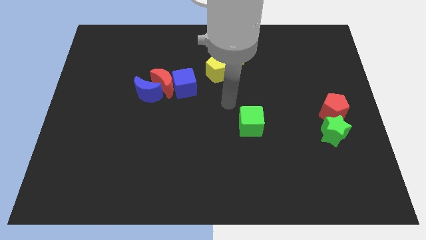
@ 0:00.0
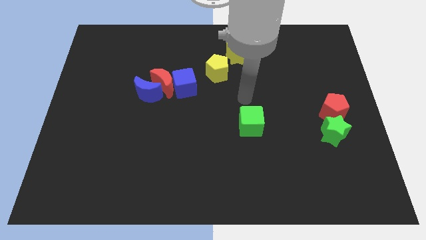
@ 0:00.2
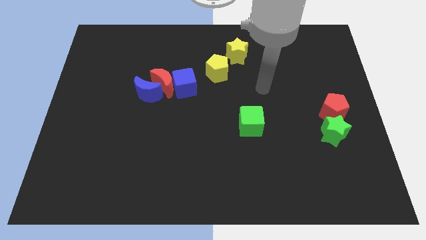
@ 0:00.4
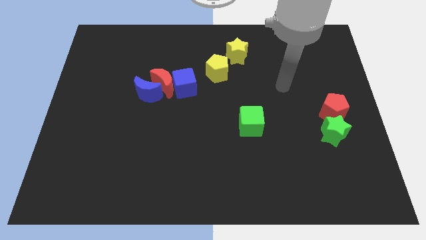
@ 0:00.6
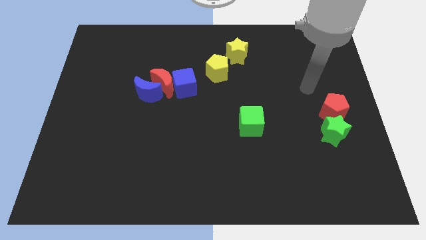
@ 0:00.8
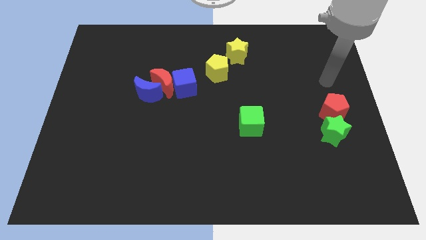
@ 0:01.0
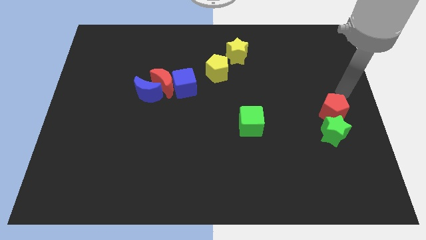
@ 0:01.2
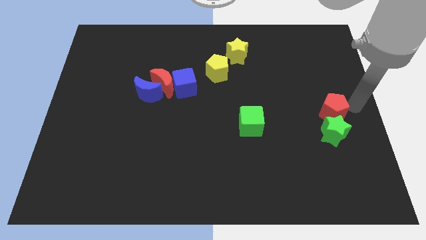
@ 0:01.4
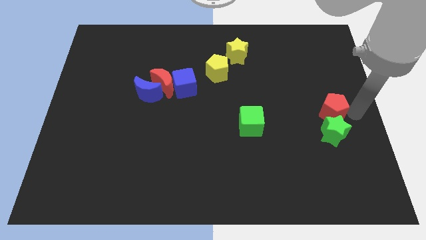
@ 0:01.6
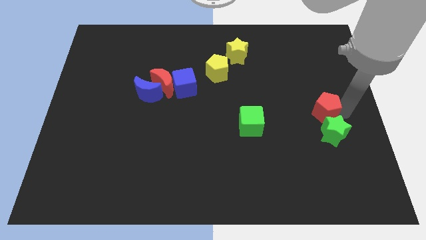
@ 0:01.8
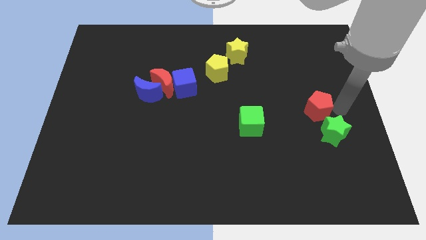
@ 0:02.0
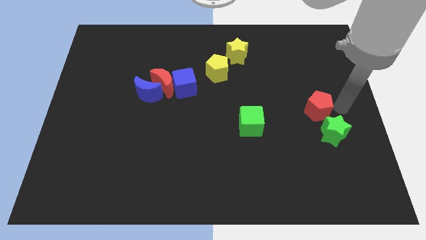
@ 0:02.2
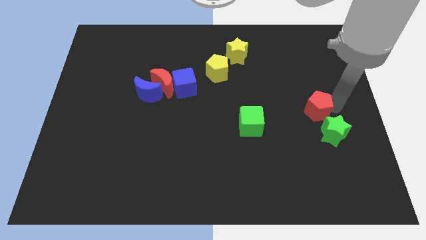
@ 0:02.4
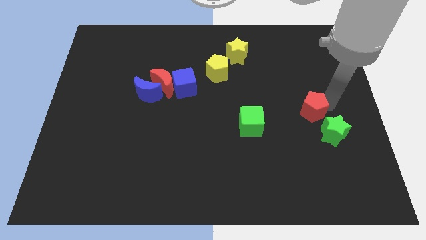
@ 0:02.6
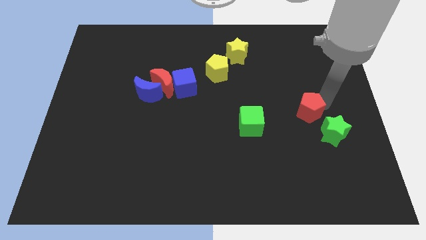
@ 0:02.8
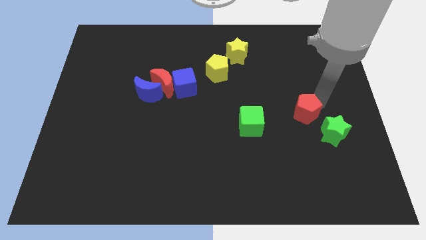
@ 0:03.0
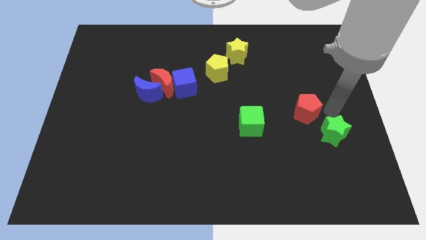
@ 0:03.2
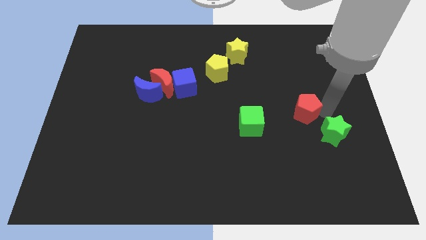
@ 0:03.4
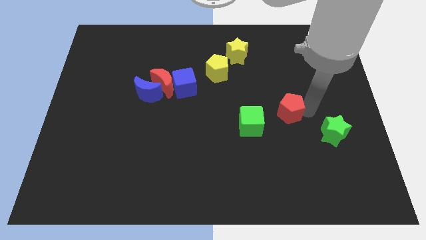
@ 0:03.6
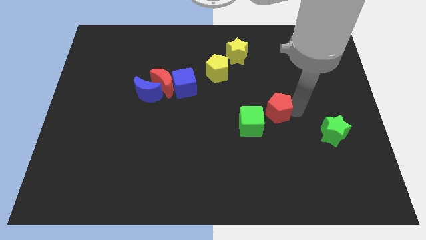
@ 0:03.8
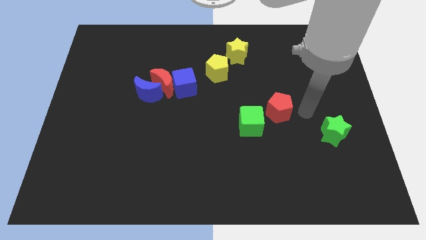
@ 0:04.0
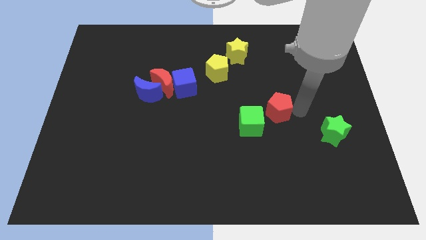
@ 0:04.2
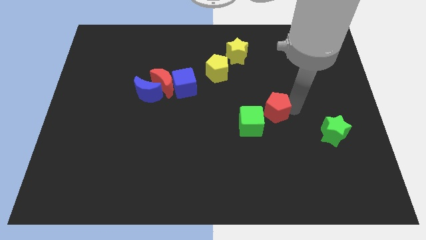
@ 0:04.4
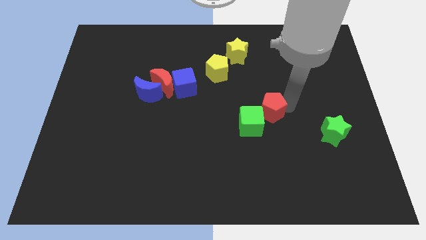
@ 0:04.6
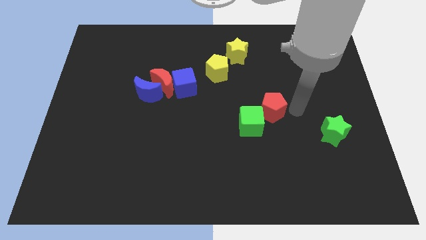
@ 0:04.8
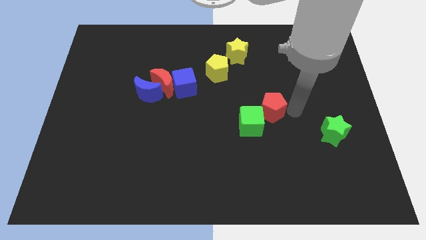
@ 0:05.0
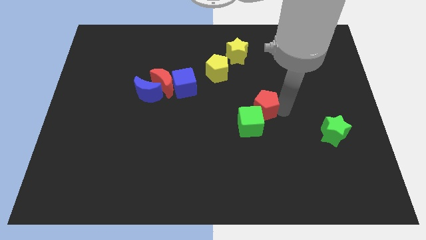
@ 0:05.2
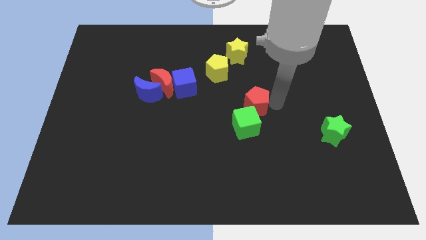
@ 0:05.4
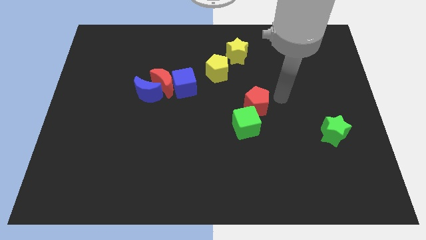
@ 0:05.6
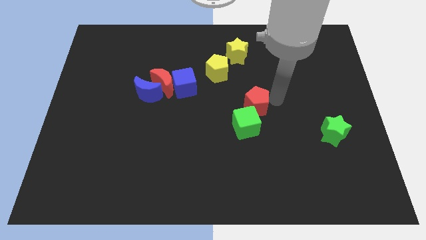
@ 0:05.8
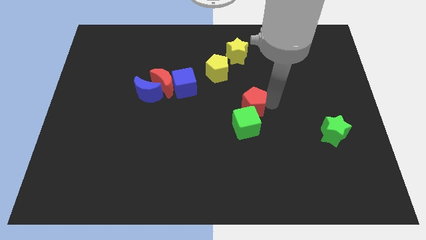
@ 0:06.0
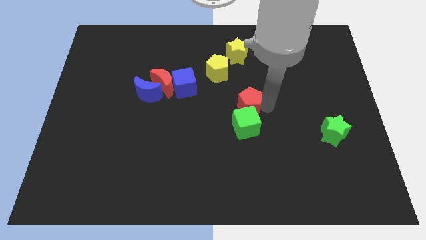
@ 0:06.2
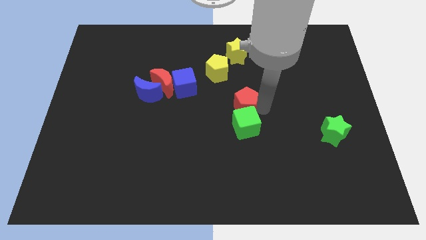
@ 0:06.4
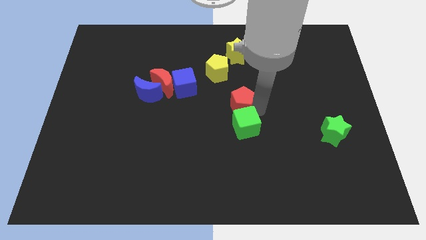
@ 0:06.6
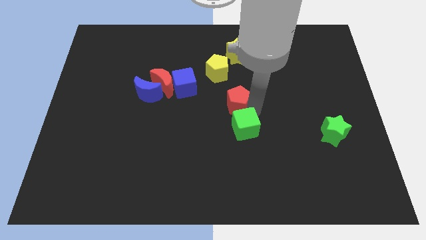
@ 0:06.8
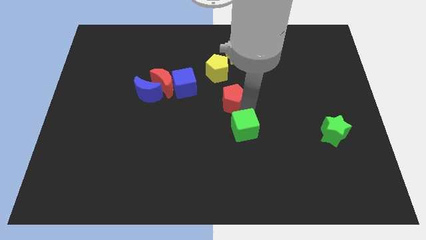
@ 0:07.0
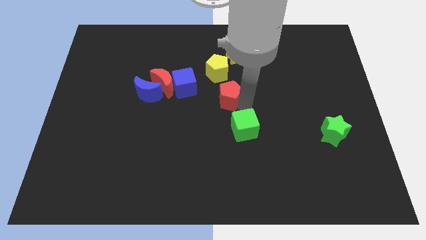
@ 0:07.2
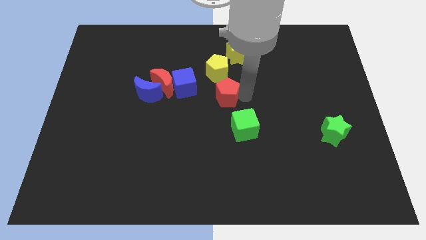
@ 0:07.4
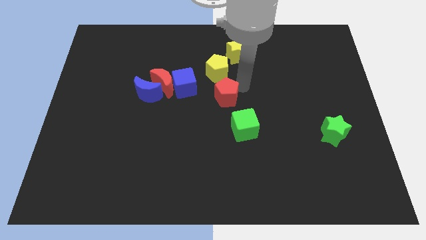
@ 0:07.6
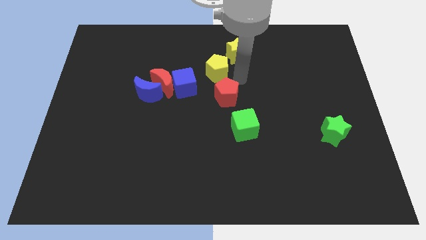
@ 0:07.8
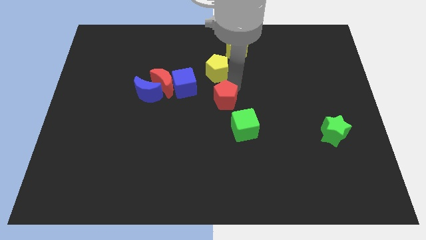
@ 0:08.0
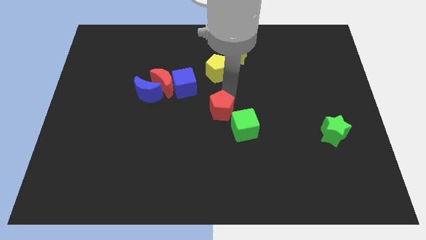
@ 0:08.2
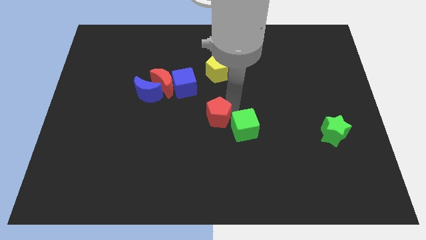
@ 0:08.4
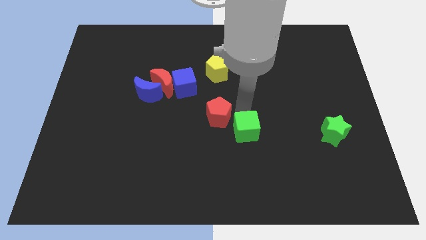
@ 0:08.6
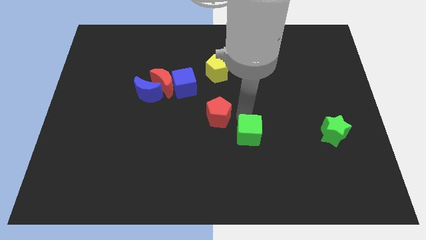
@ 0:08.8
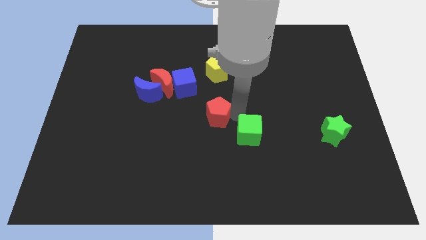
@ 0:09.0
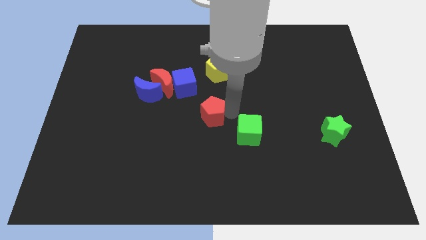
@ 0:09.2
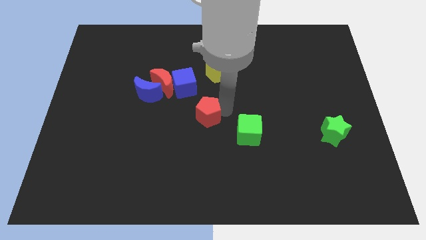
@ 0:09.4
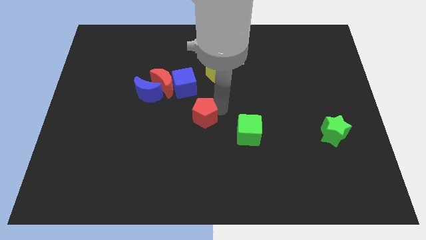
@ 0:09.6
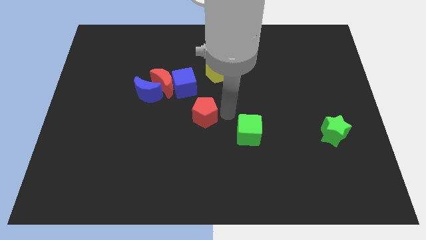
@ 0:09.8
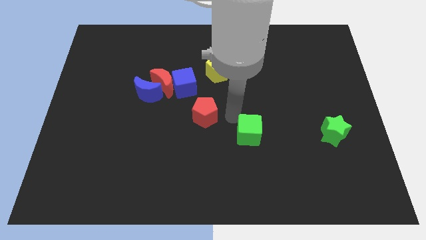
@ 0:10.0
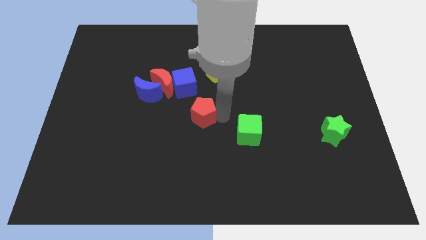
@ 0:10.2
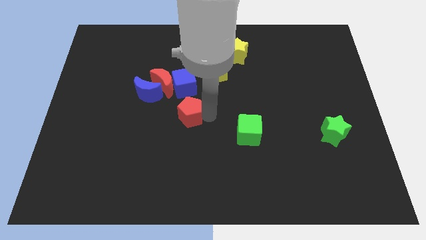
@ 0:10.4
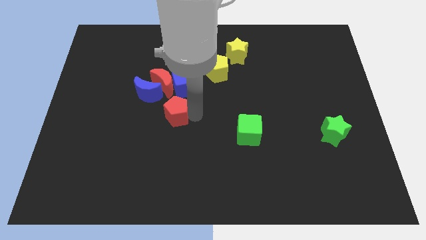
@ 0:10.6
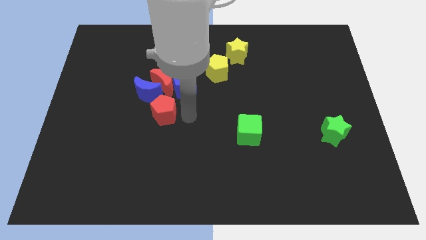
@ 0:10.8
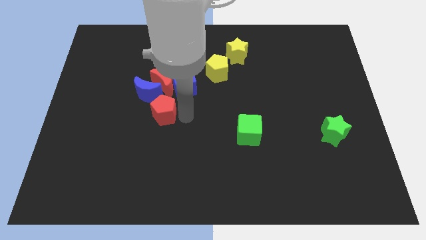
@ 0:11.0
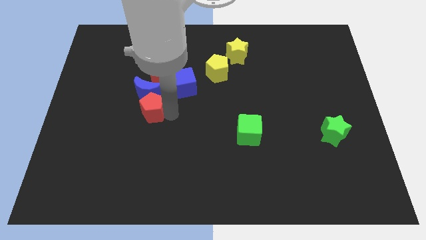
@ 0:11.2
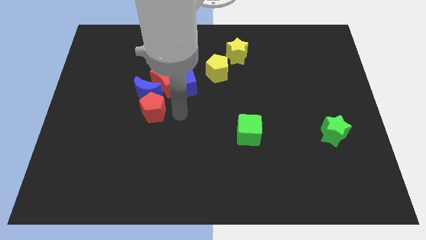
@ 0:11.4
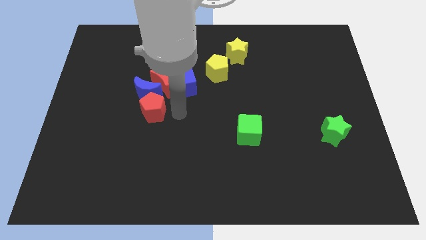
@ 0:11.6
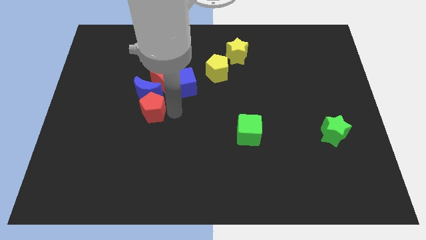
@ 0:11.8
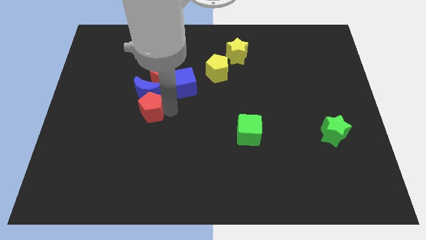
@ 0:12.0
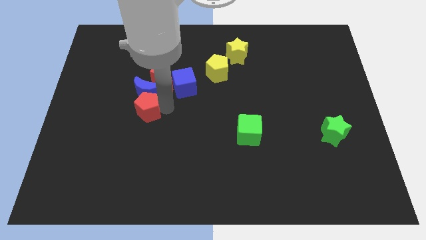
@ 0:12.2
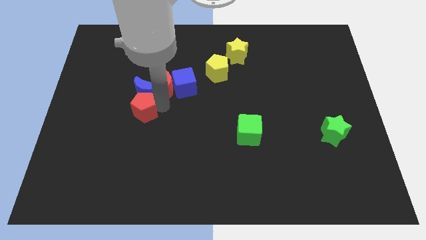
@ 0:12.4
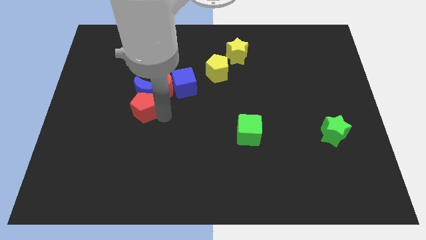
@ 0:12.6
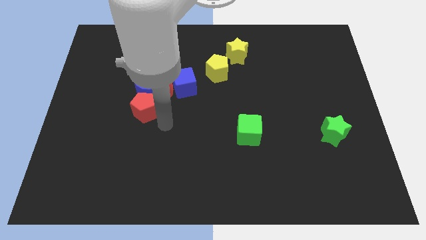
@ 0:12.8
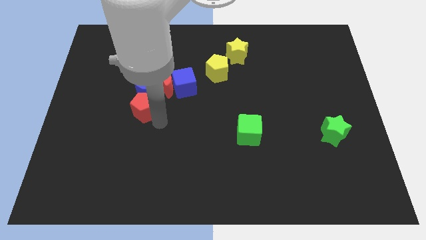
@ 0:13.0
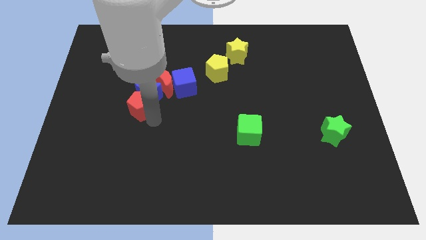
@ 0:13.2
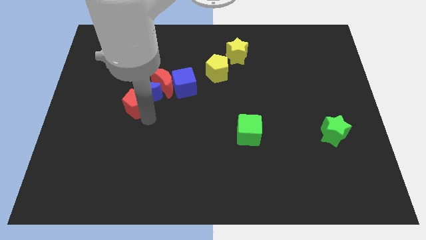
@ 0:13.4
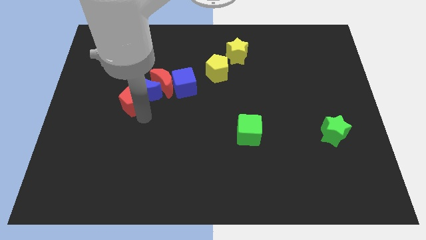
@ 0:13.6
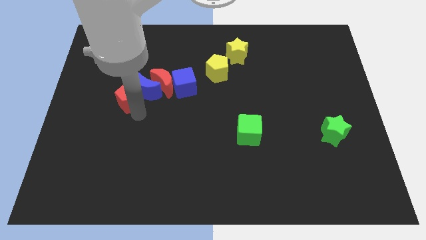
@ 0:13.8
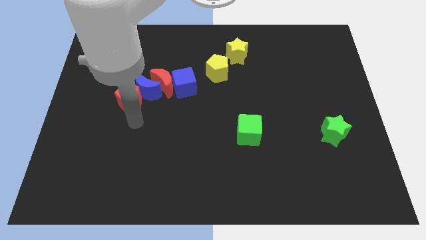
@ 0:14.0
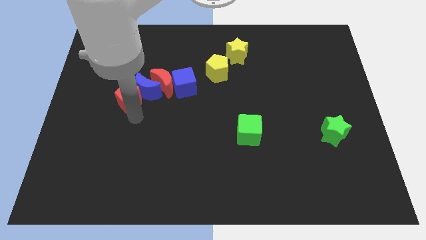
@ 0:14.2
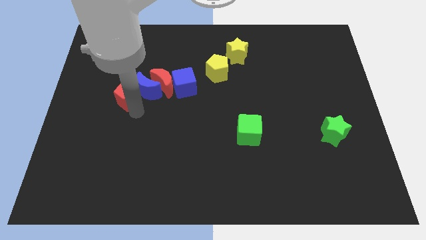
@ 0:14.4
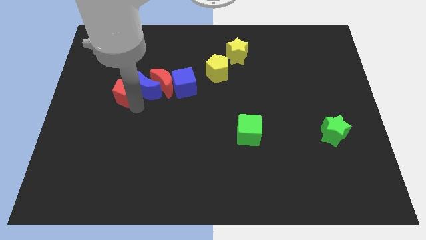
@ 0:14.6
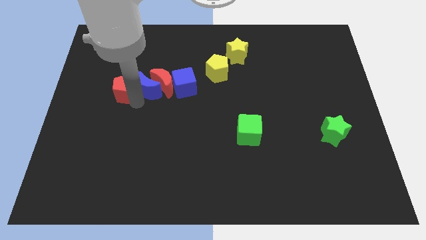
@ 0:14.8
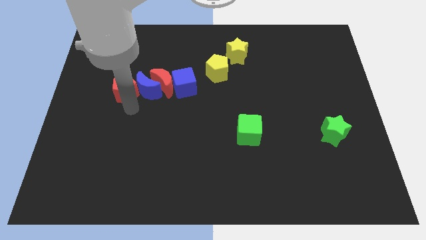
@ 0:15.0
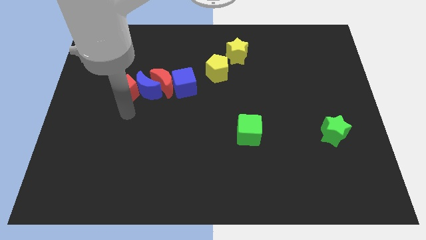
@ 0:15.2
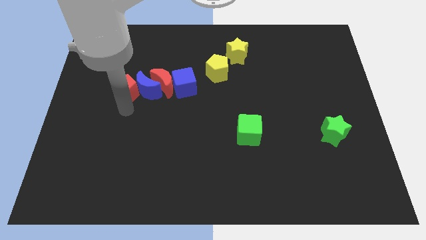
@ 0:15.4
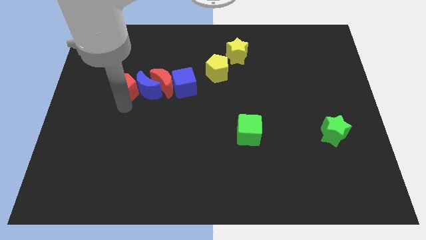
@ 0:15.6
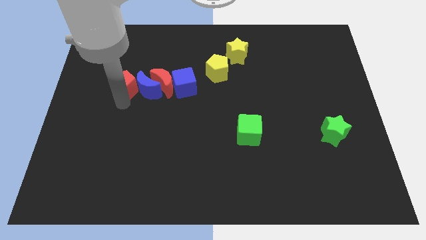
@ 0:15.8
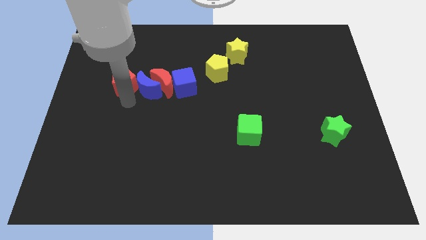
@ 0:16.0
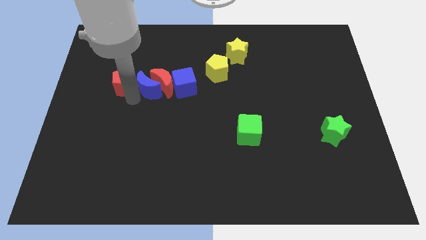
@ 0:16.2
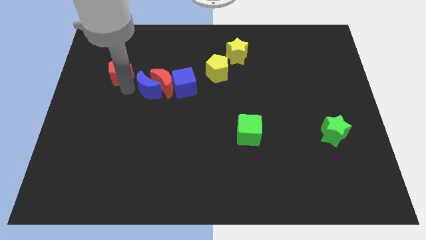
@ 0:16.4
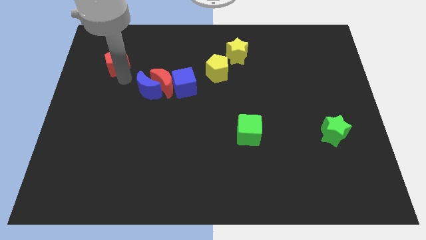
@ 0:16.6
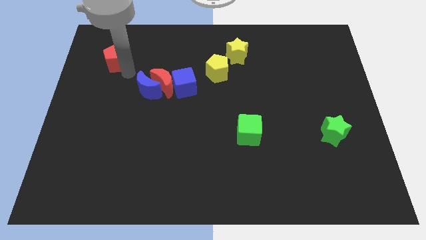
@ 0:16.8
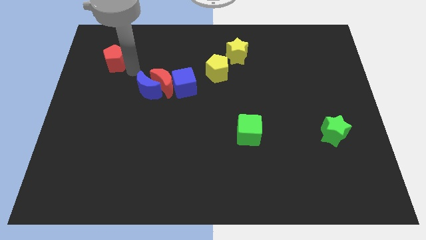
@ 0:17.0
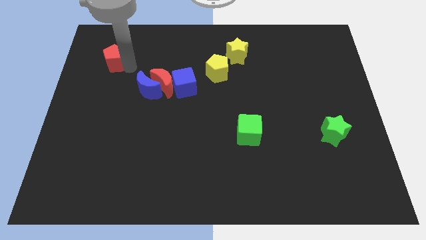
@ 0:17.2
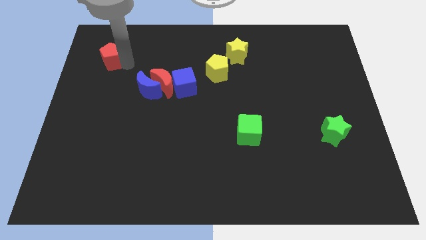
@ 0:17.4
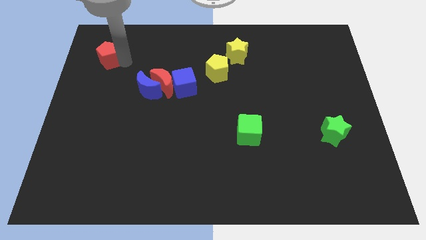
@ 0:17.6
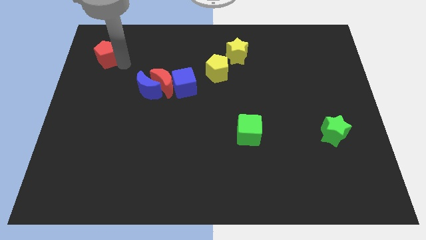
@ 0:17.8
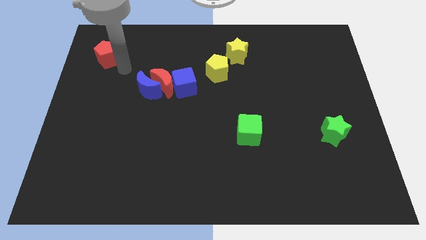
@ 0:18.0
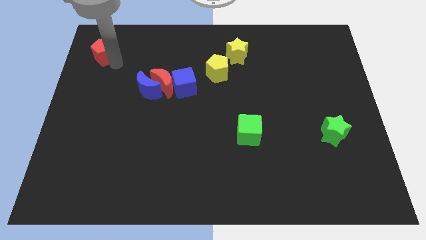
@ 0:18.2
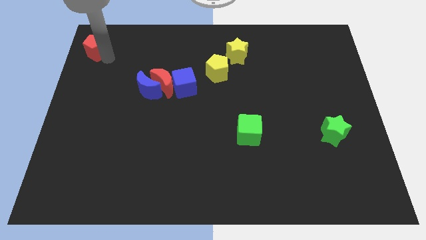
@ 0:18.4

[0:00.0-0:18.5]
push the red pentagon to the upper left corner
